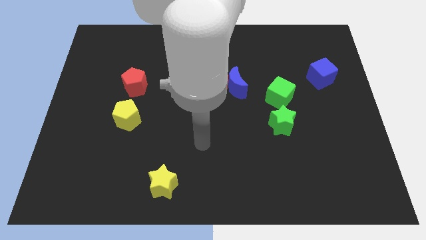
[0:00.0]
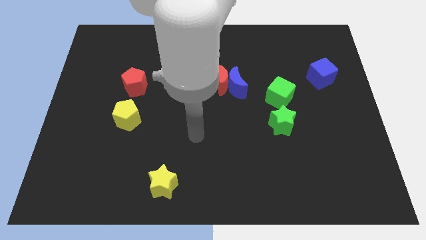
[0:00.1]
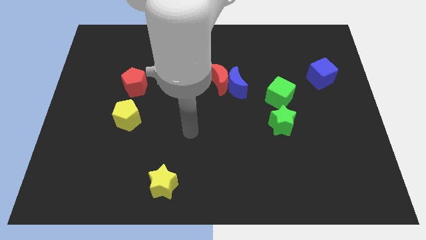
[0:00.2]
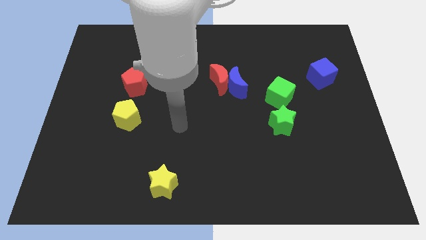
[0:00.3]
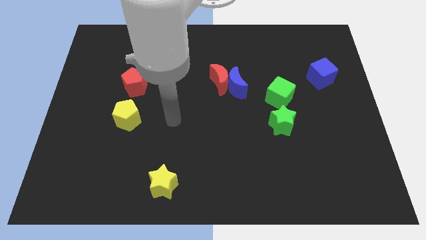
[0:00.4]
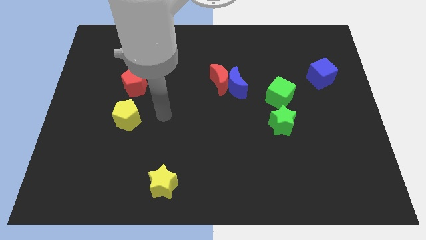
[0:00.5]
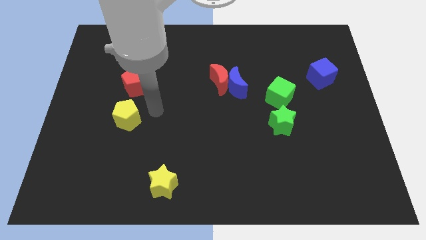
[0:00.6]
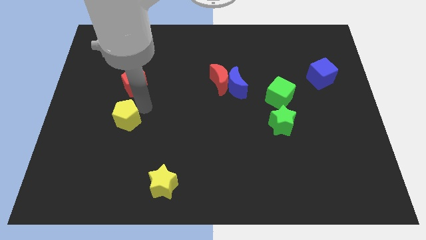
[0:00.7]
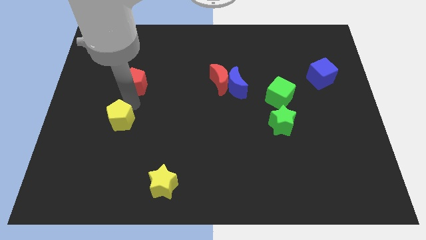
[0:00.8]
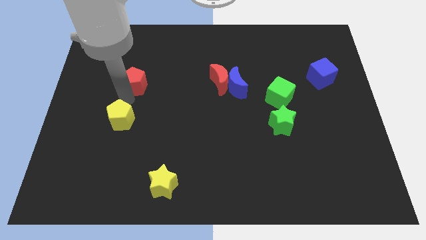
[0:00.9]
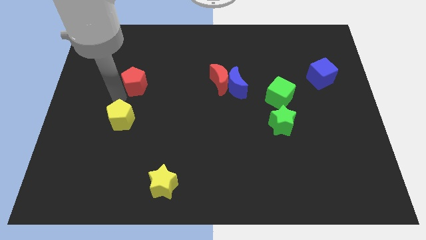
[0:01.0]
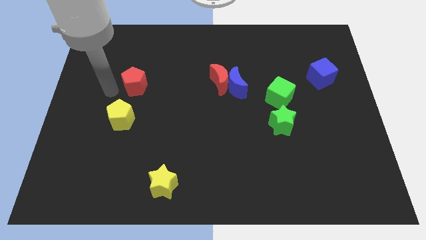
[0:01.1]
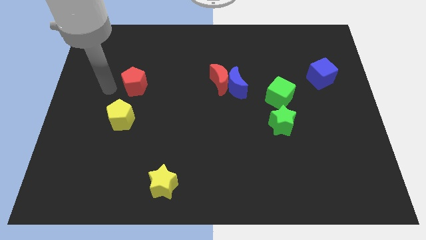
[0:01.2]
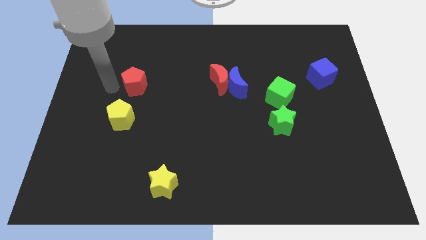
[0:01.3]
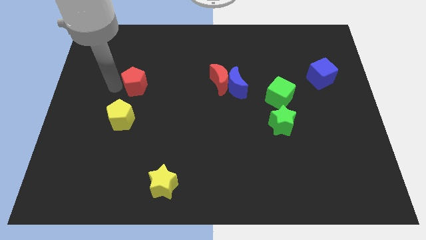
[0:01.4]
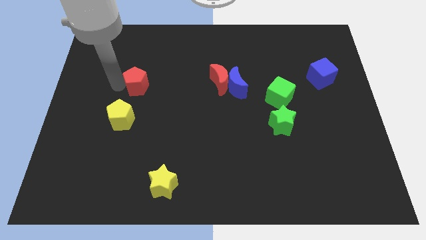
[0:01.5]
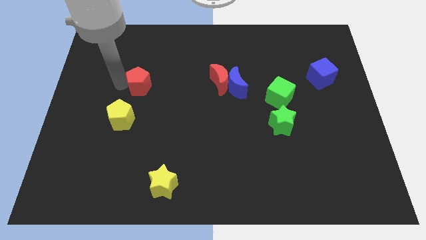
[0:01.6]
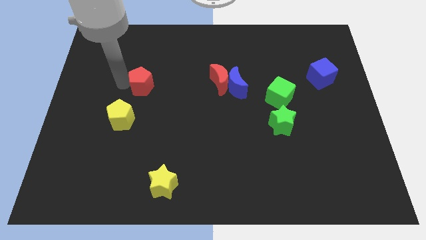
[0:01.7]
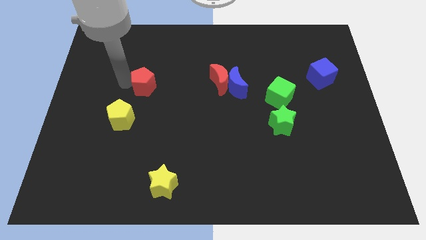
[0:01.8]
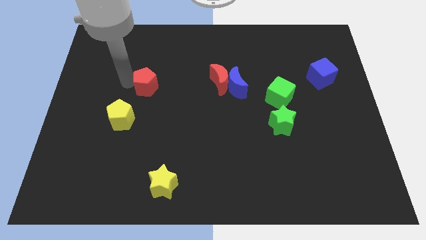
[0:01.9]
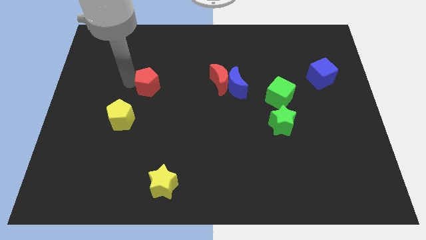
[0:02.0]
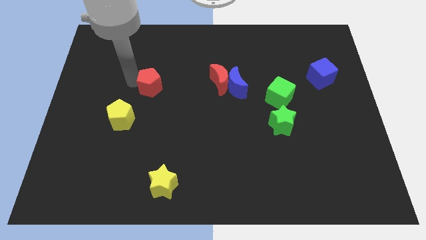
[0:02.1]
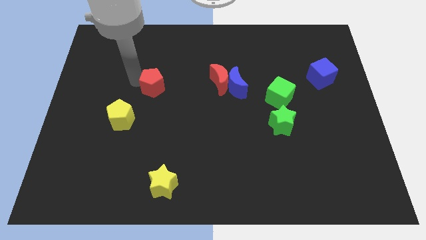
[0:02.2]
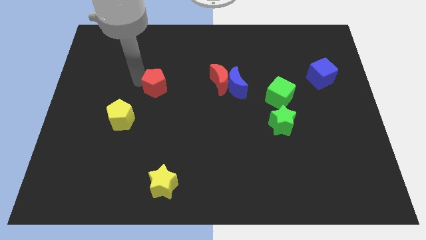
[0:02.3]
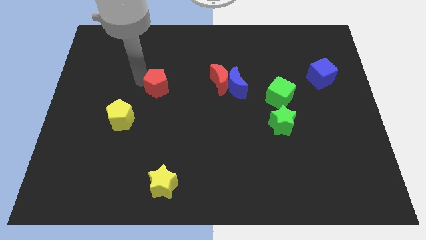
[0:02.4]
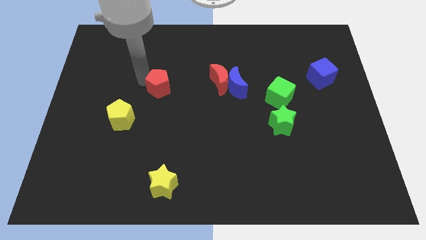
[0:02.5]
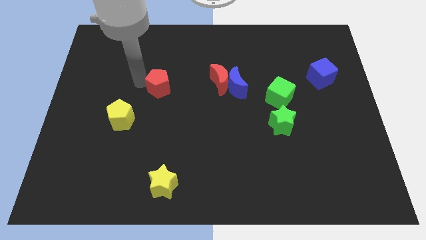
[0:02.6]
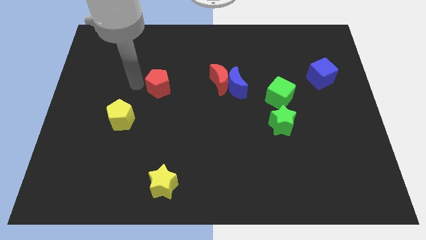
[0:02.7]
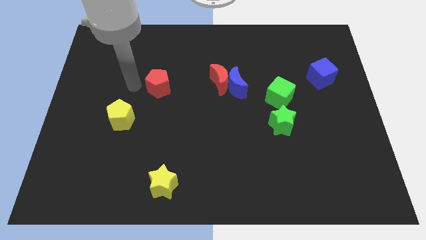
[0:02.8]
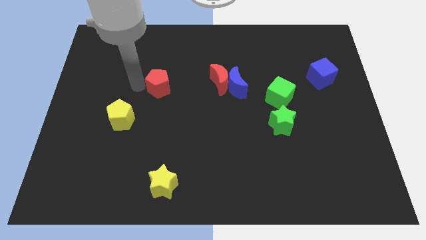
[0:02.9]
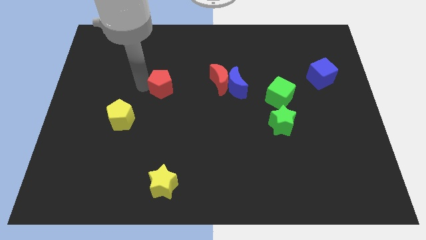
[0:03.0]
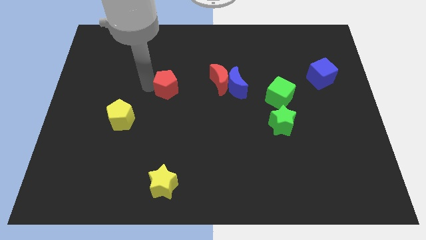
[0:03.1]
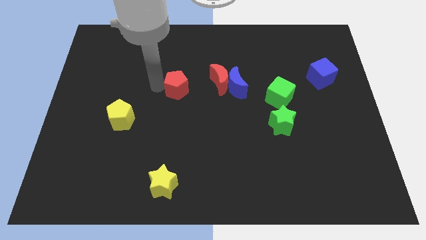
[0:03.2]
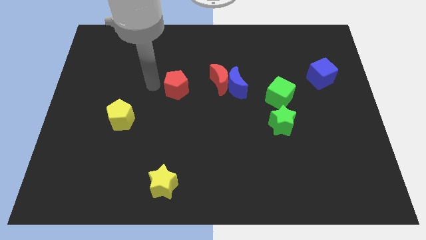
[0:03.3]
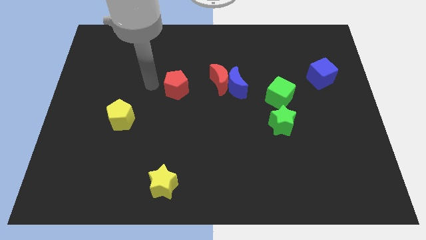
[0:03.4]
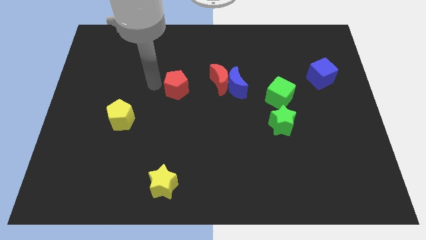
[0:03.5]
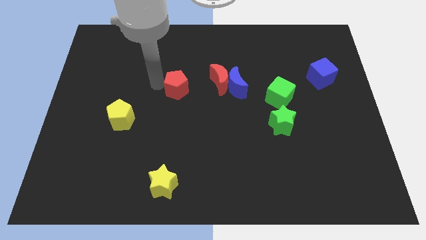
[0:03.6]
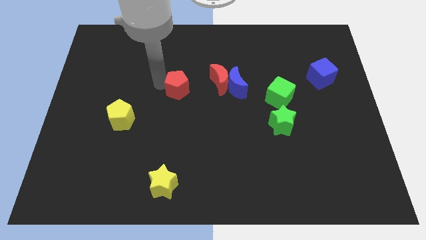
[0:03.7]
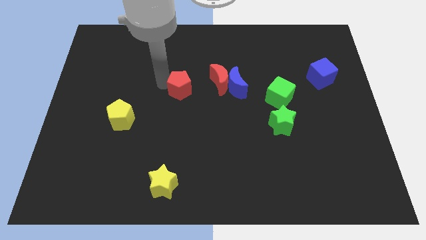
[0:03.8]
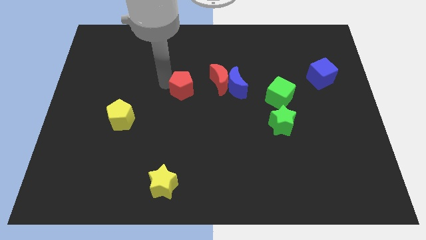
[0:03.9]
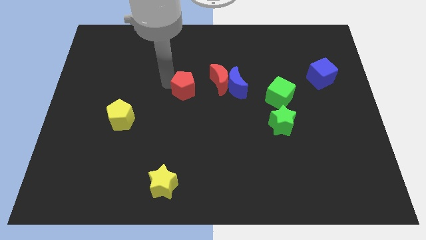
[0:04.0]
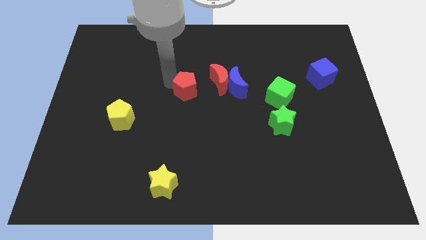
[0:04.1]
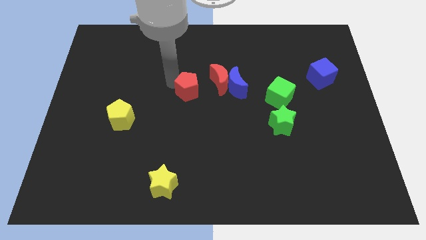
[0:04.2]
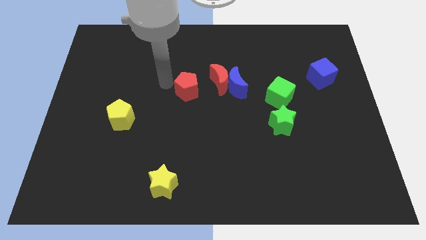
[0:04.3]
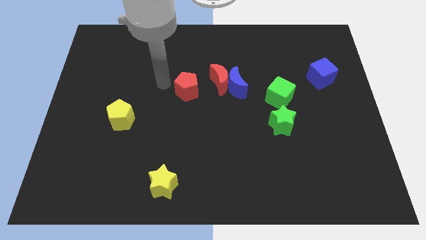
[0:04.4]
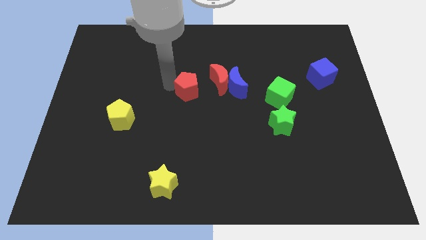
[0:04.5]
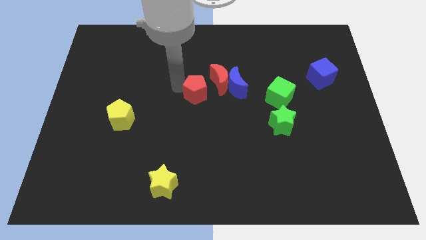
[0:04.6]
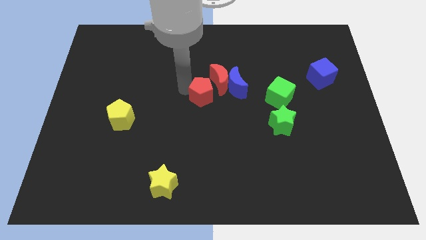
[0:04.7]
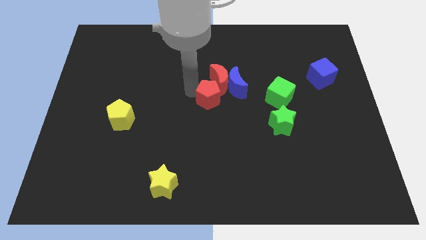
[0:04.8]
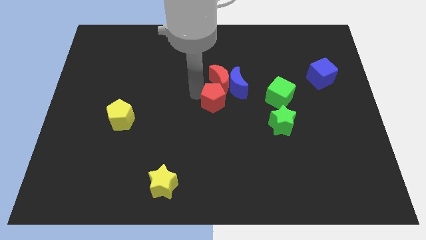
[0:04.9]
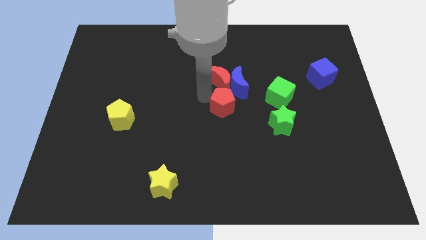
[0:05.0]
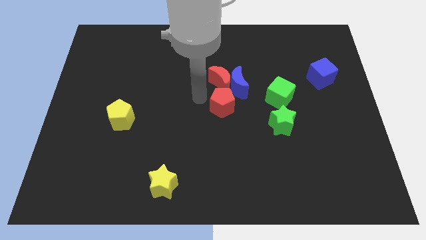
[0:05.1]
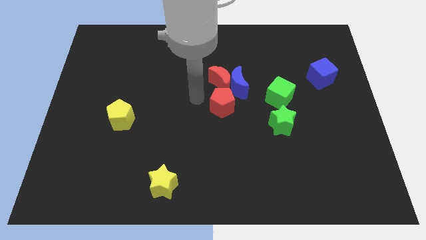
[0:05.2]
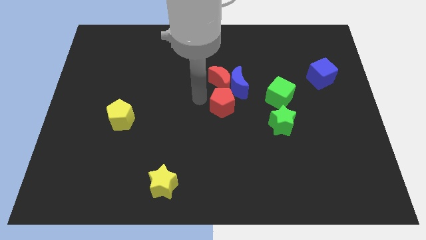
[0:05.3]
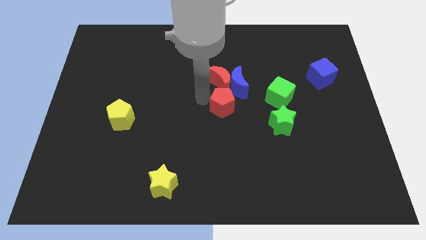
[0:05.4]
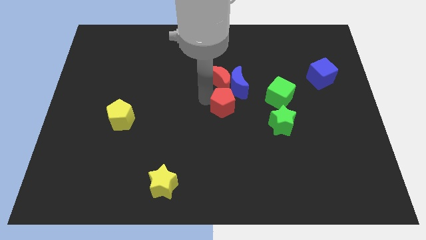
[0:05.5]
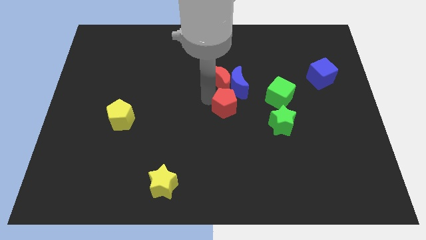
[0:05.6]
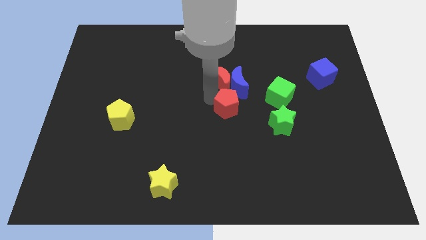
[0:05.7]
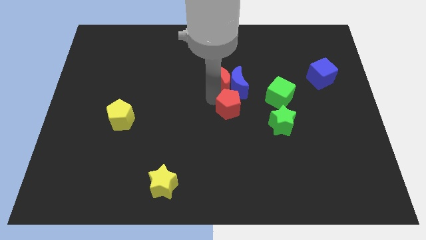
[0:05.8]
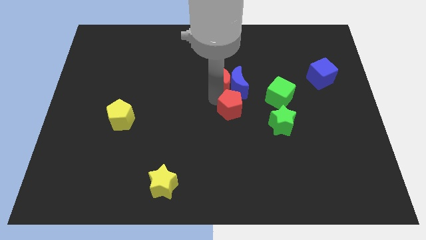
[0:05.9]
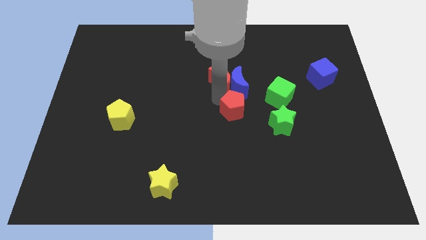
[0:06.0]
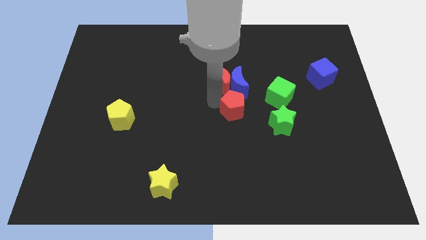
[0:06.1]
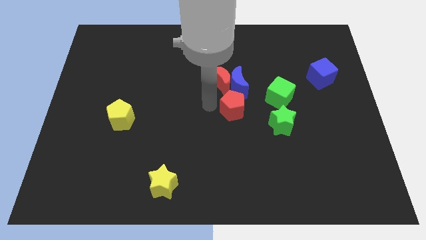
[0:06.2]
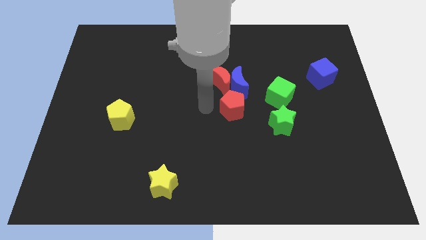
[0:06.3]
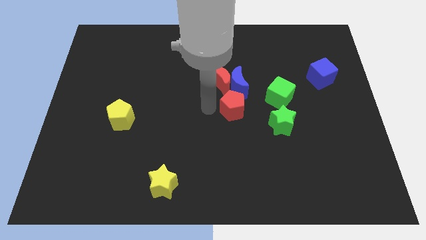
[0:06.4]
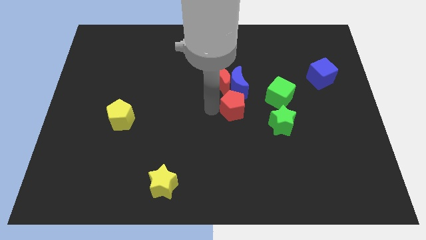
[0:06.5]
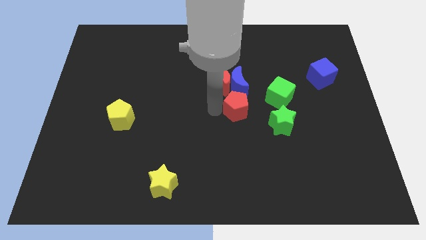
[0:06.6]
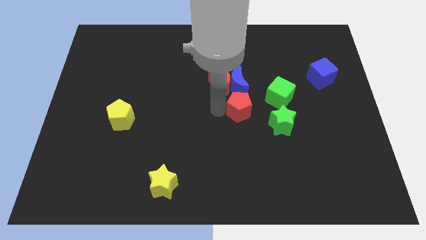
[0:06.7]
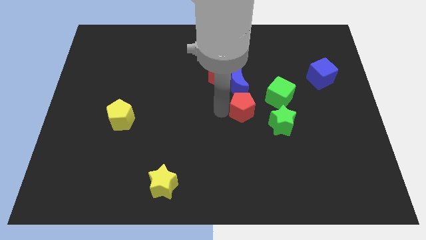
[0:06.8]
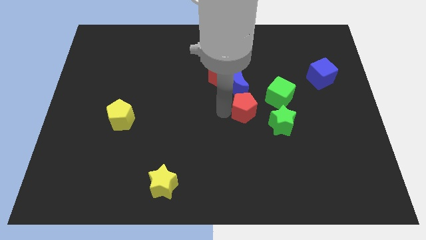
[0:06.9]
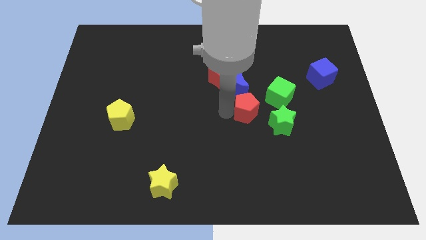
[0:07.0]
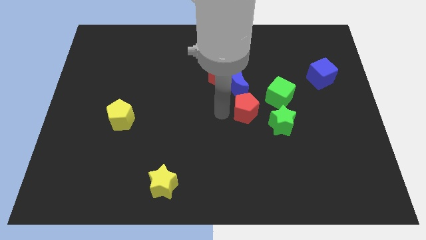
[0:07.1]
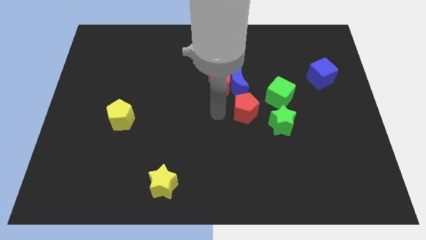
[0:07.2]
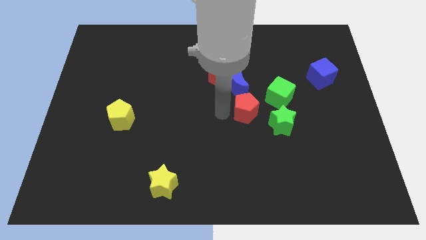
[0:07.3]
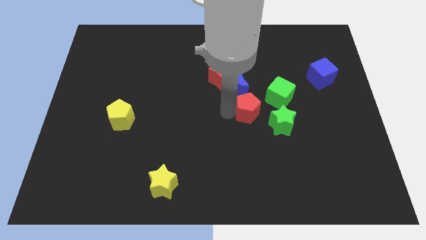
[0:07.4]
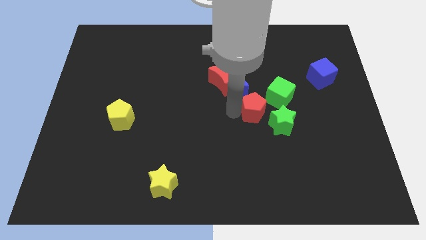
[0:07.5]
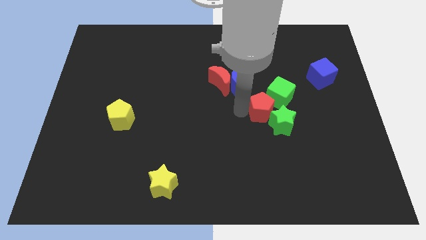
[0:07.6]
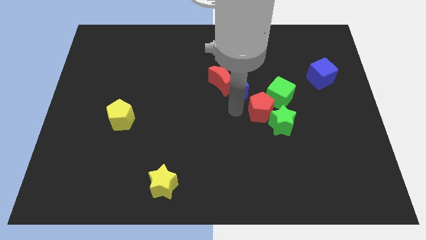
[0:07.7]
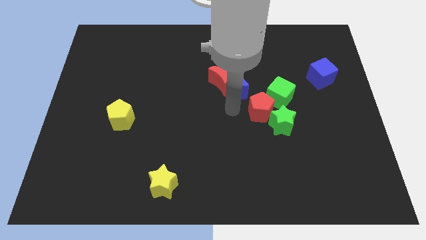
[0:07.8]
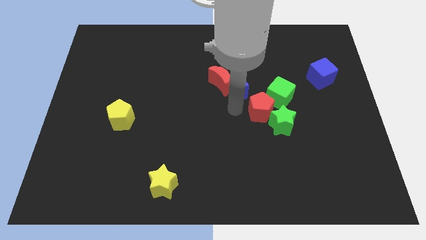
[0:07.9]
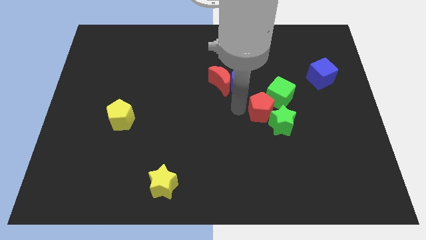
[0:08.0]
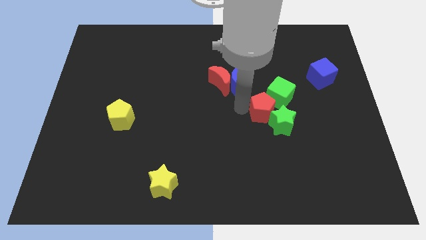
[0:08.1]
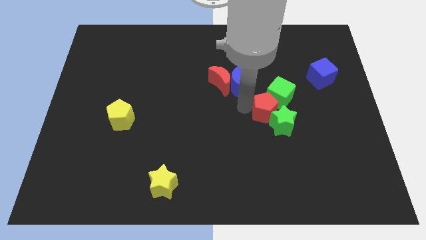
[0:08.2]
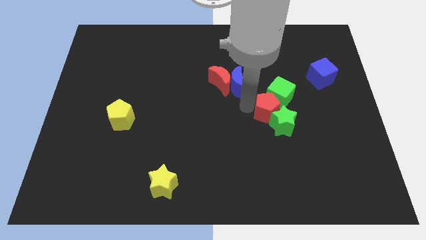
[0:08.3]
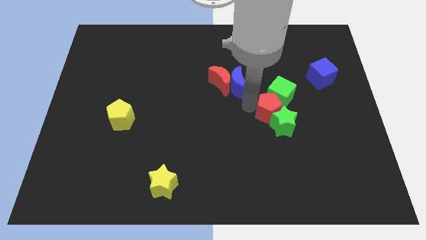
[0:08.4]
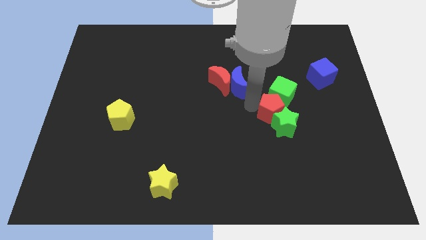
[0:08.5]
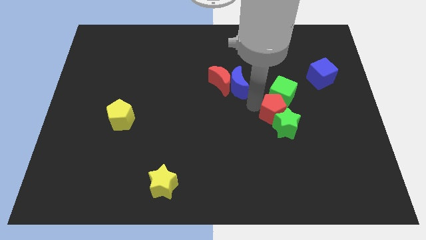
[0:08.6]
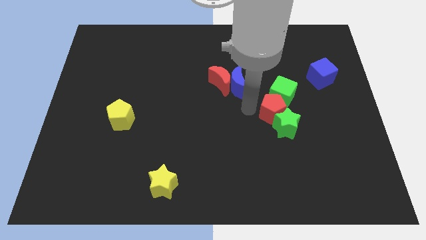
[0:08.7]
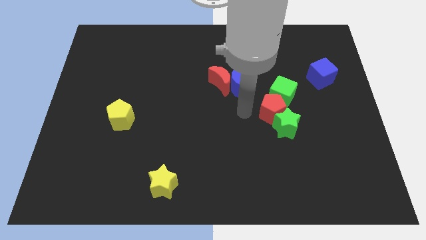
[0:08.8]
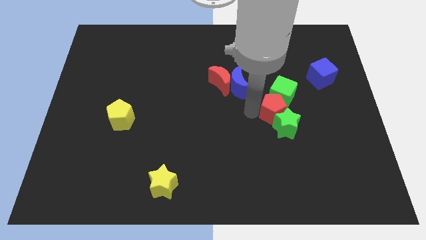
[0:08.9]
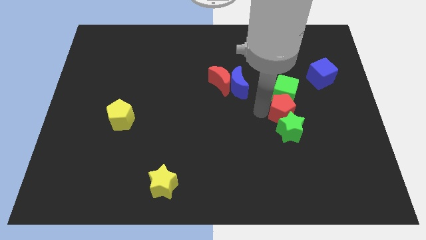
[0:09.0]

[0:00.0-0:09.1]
push the red pentagon to the top right side of the green star
